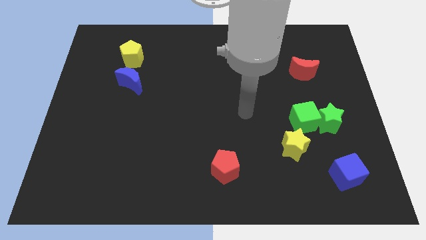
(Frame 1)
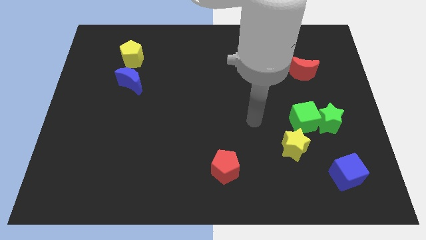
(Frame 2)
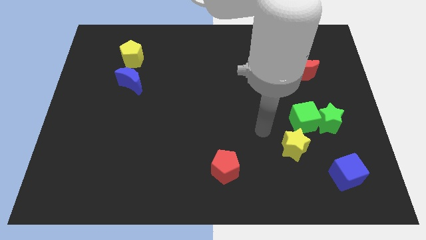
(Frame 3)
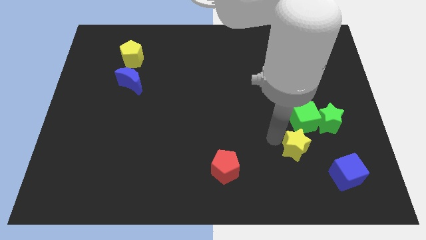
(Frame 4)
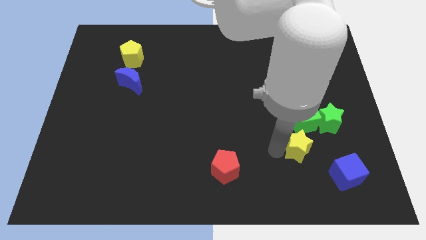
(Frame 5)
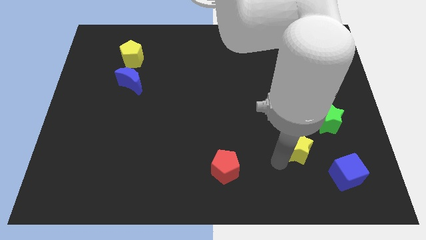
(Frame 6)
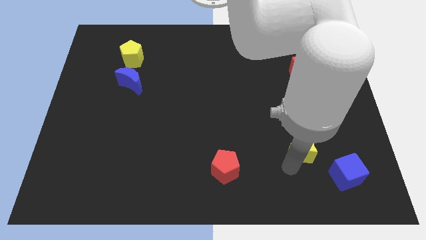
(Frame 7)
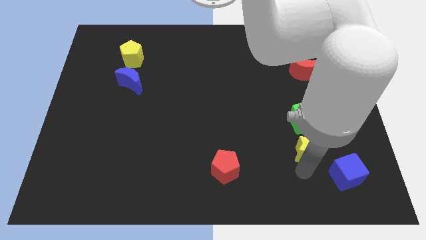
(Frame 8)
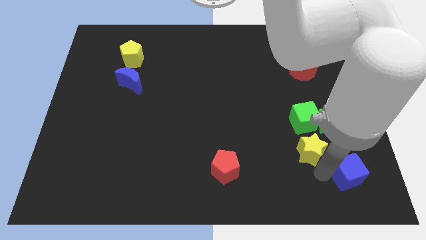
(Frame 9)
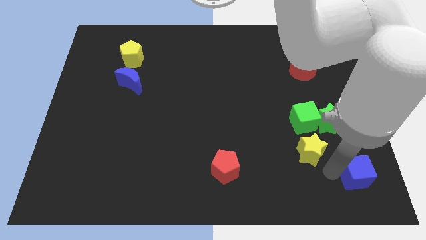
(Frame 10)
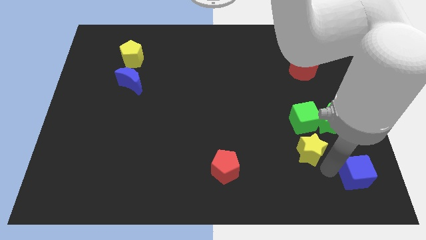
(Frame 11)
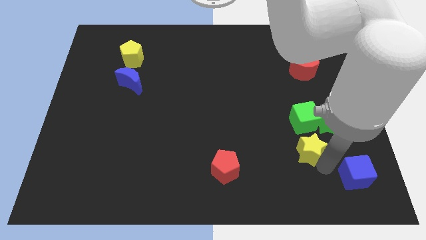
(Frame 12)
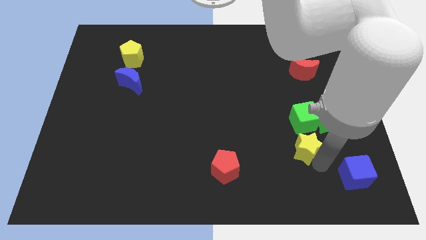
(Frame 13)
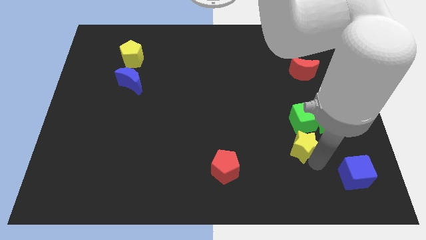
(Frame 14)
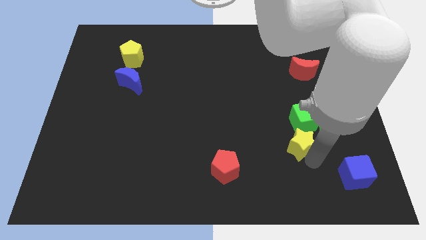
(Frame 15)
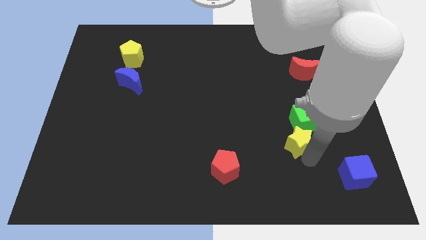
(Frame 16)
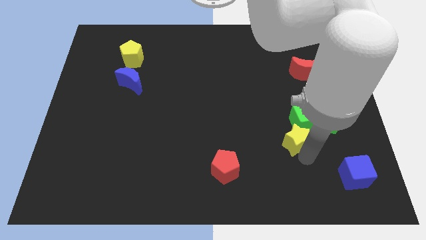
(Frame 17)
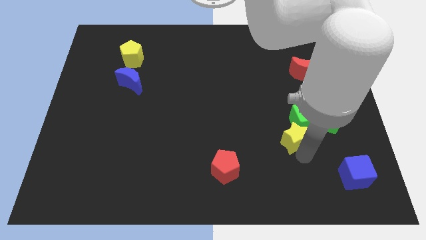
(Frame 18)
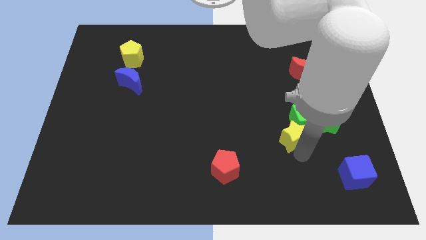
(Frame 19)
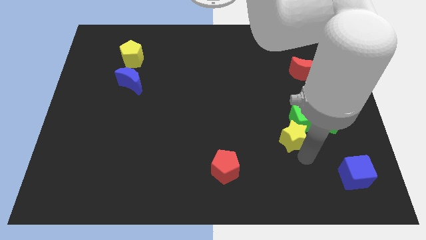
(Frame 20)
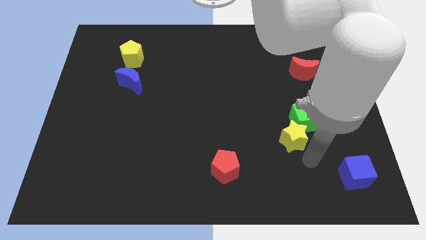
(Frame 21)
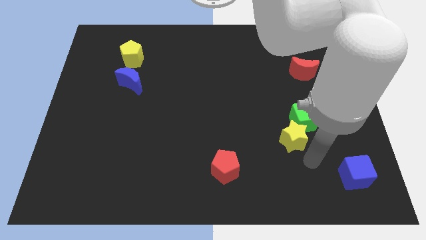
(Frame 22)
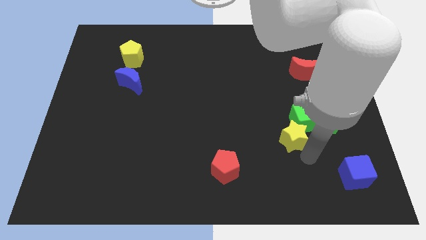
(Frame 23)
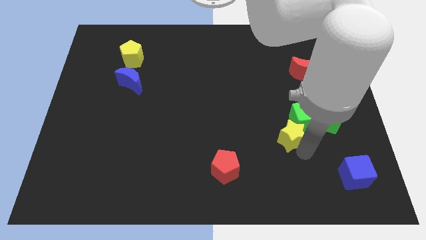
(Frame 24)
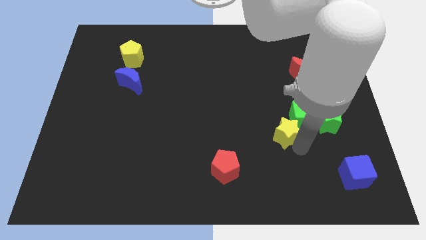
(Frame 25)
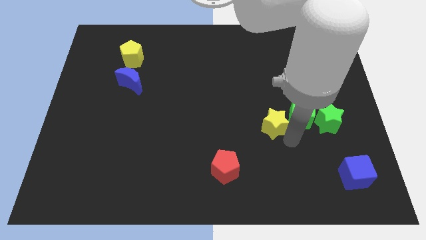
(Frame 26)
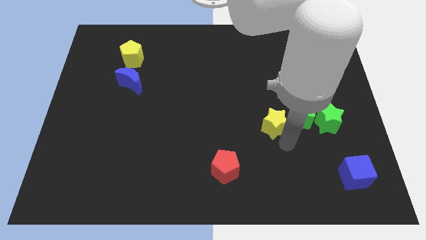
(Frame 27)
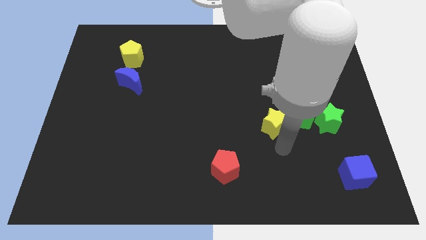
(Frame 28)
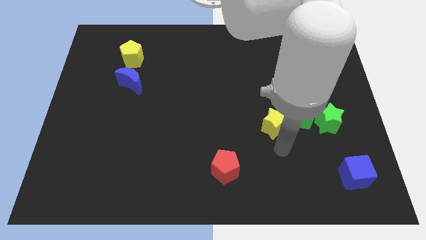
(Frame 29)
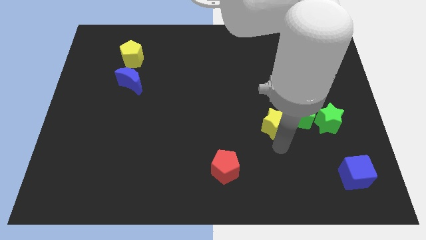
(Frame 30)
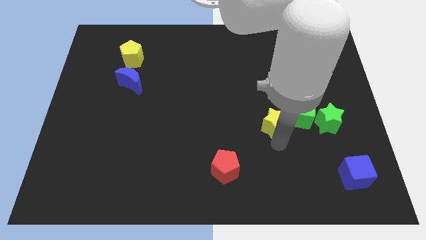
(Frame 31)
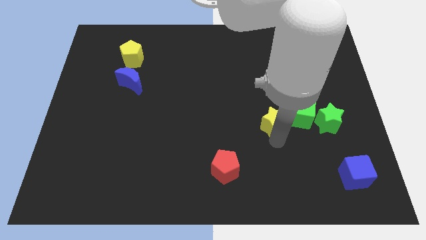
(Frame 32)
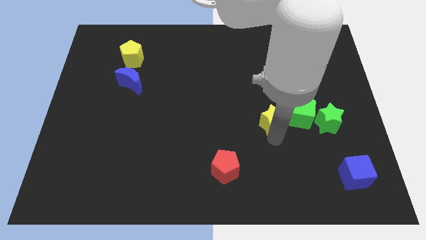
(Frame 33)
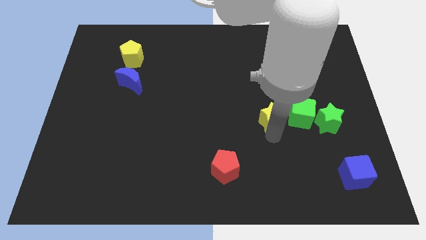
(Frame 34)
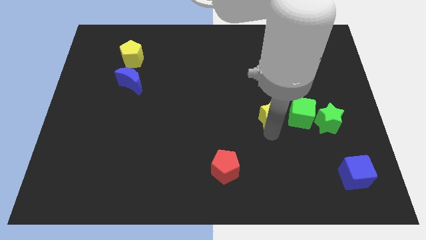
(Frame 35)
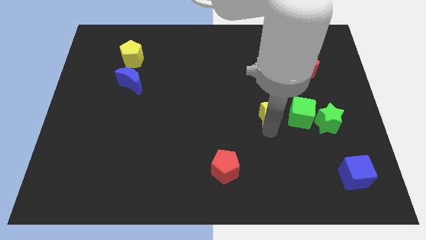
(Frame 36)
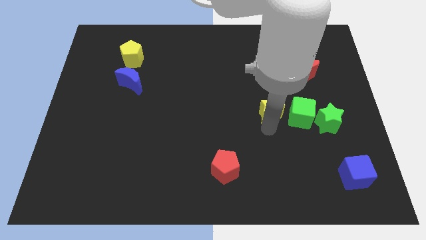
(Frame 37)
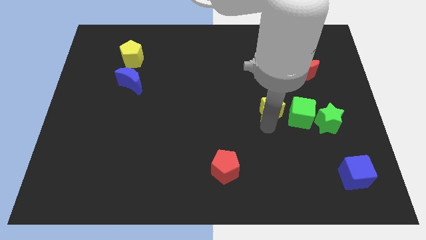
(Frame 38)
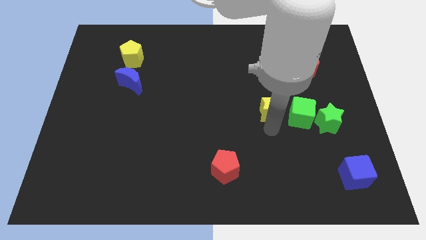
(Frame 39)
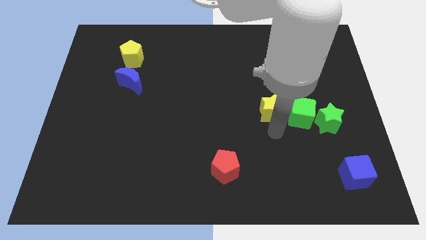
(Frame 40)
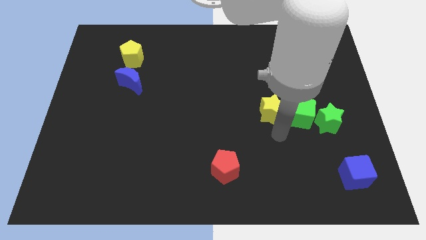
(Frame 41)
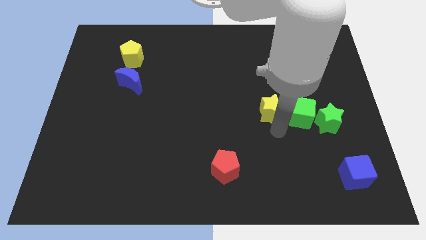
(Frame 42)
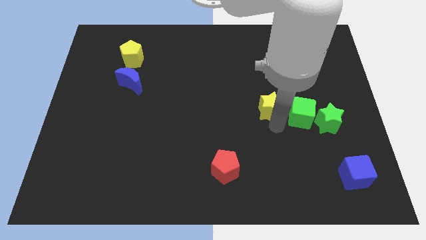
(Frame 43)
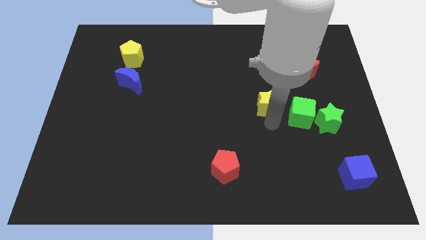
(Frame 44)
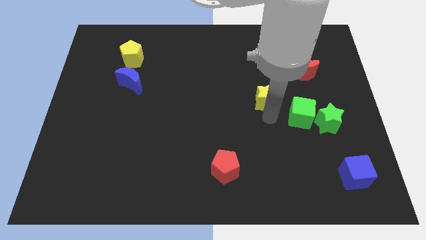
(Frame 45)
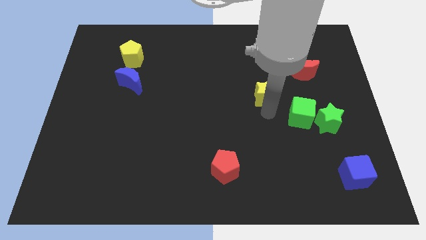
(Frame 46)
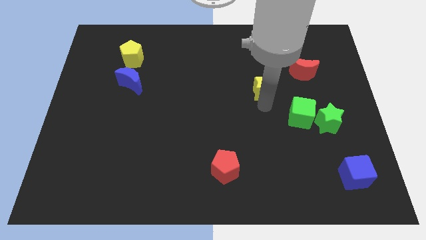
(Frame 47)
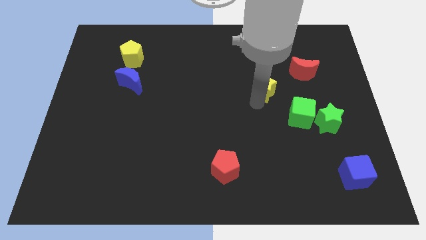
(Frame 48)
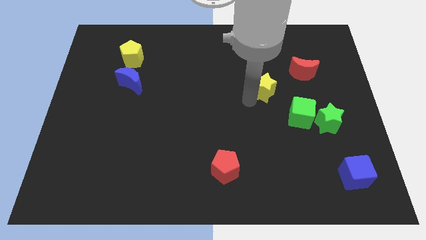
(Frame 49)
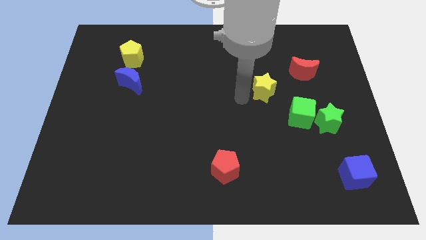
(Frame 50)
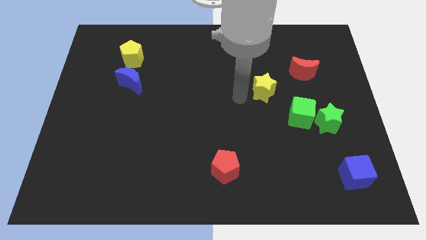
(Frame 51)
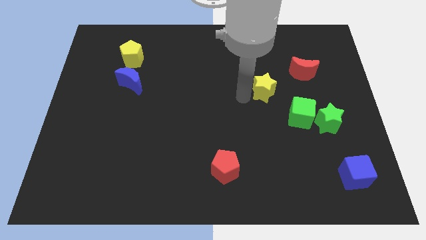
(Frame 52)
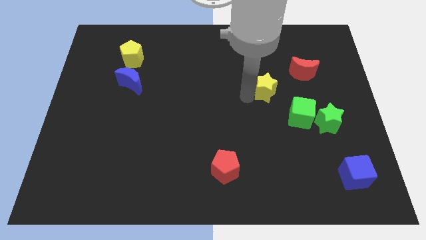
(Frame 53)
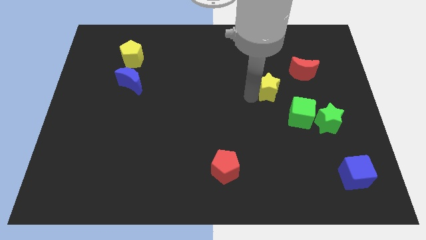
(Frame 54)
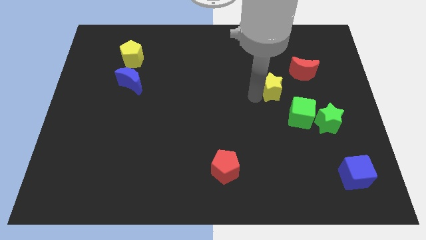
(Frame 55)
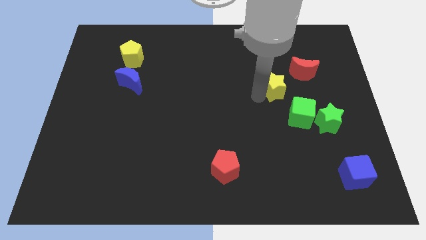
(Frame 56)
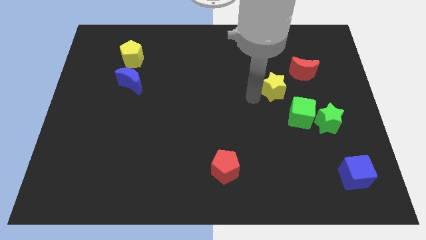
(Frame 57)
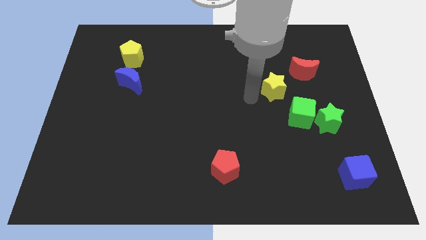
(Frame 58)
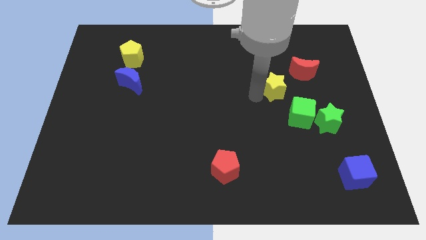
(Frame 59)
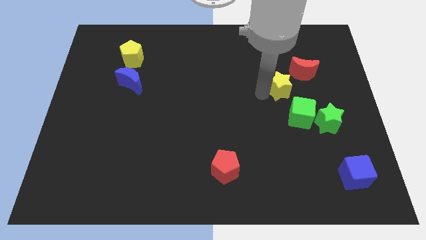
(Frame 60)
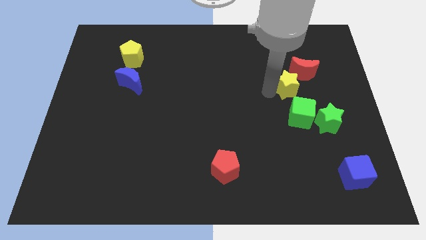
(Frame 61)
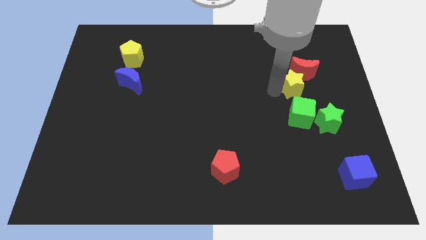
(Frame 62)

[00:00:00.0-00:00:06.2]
move the yellow star to the red moon

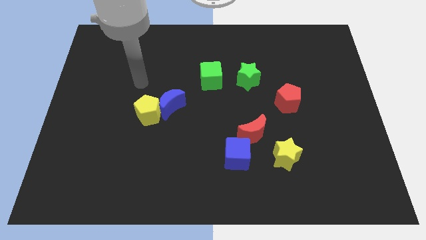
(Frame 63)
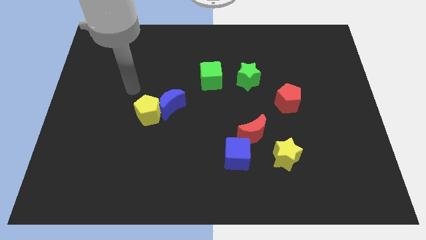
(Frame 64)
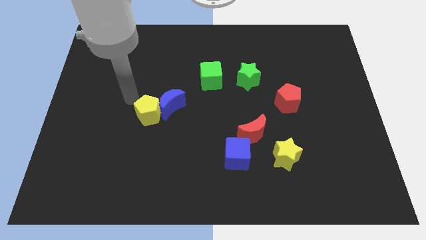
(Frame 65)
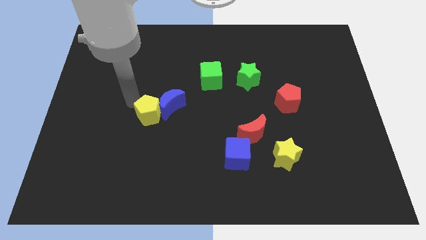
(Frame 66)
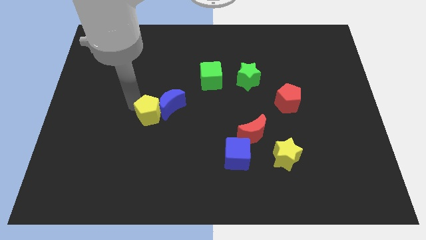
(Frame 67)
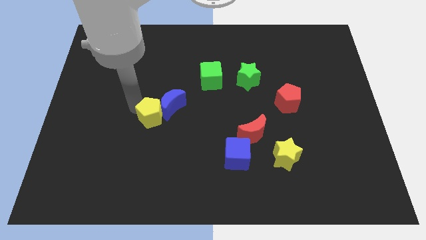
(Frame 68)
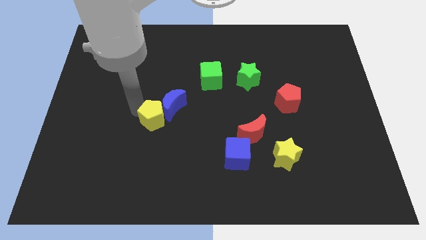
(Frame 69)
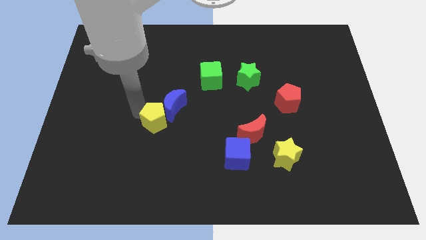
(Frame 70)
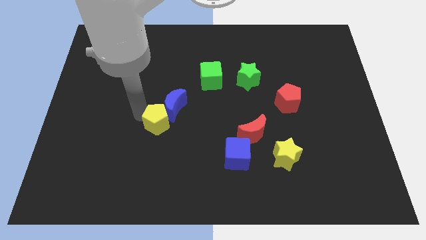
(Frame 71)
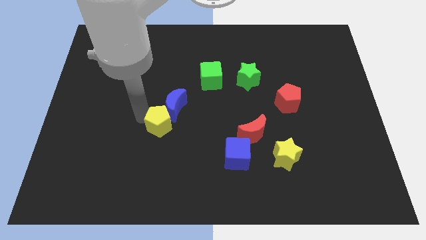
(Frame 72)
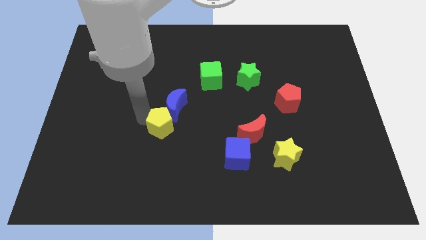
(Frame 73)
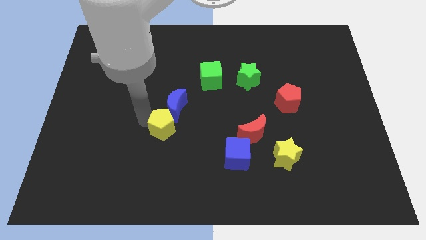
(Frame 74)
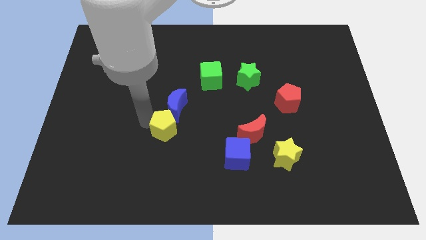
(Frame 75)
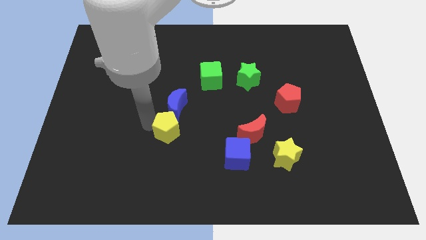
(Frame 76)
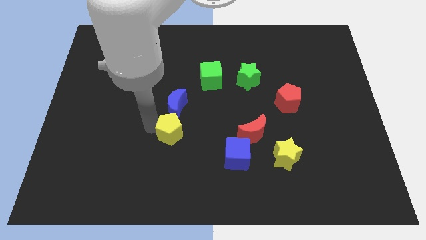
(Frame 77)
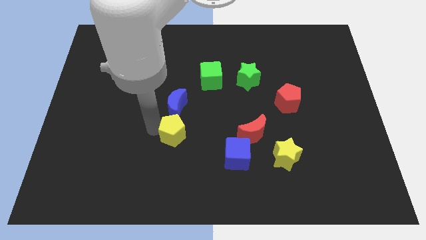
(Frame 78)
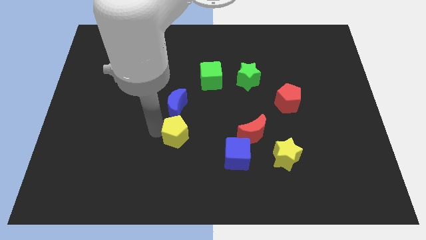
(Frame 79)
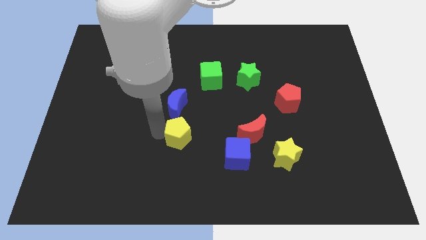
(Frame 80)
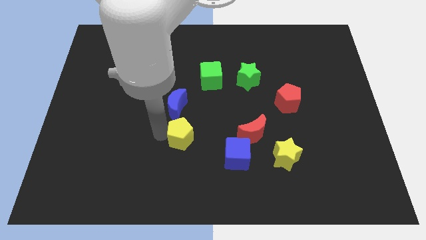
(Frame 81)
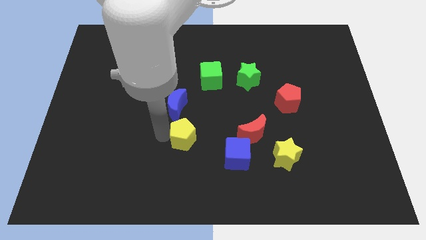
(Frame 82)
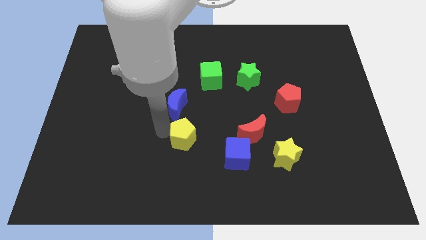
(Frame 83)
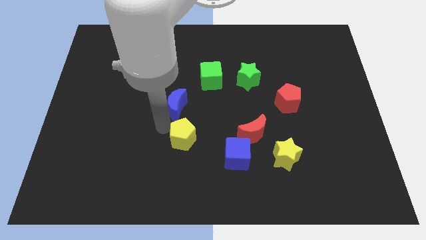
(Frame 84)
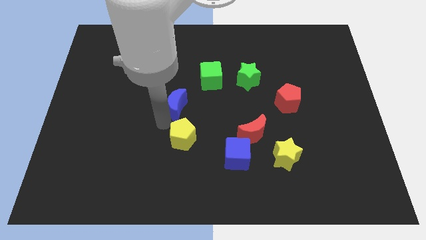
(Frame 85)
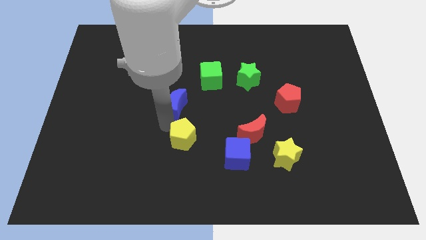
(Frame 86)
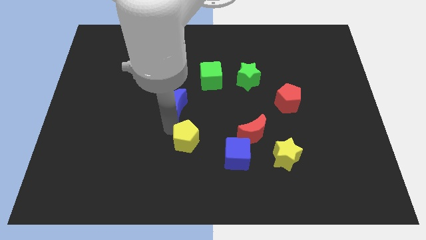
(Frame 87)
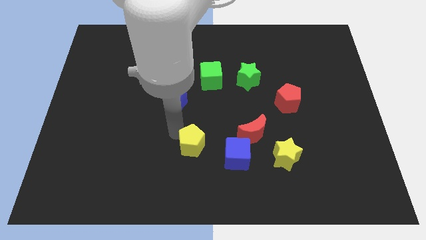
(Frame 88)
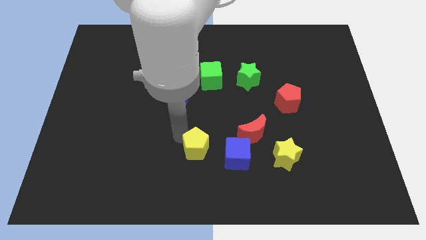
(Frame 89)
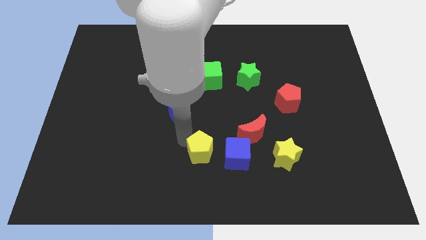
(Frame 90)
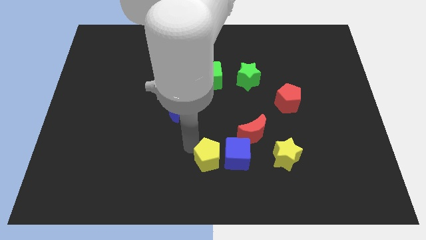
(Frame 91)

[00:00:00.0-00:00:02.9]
put the yellow pentagon close to the blue cube
